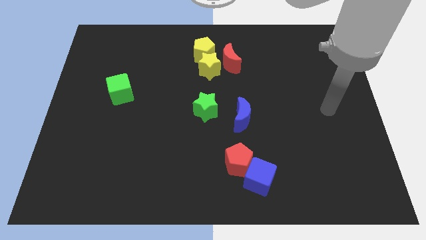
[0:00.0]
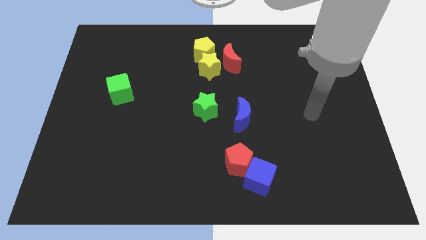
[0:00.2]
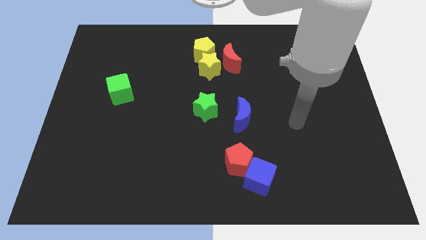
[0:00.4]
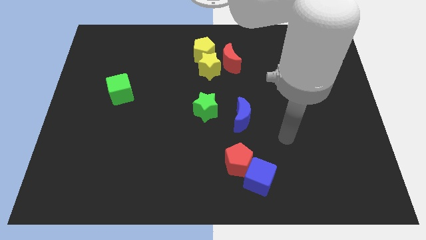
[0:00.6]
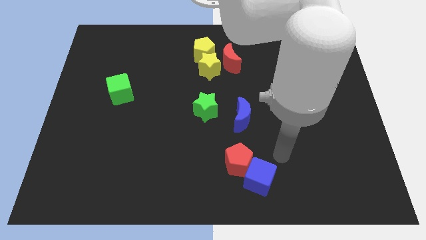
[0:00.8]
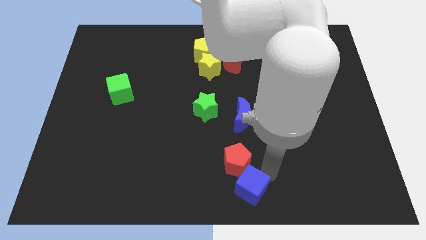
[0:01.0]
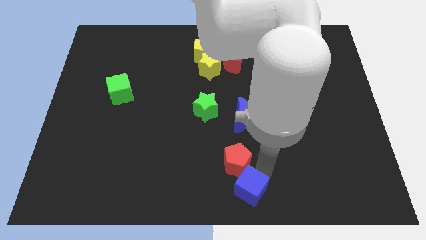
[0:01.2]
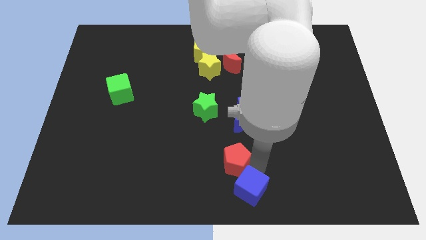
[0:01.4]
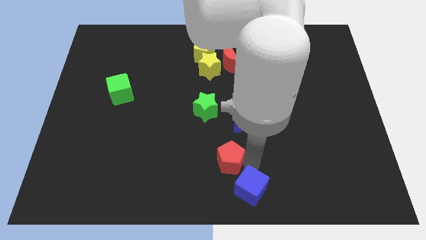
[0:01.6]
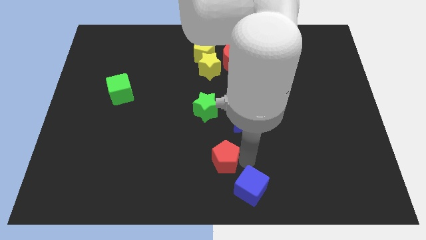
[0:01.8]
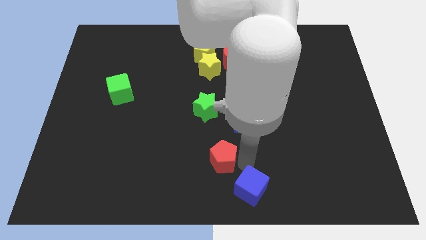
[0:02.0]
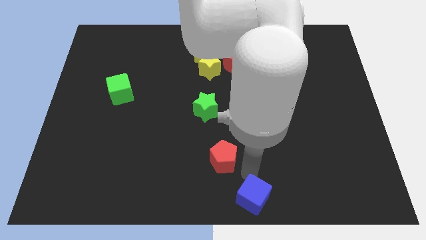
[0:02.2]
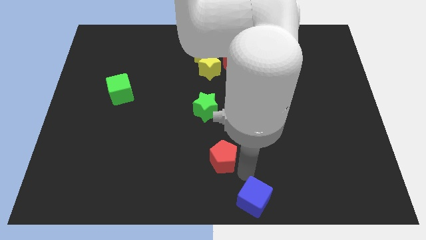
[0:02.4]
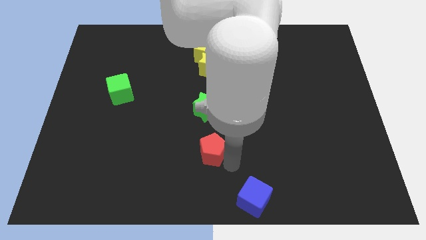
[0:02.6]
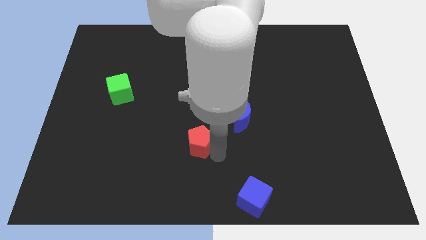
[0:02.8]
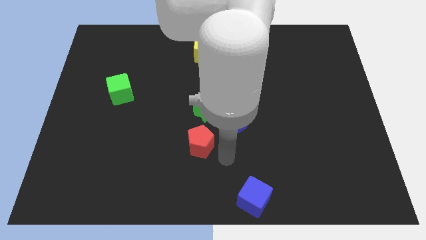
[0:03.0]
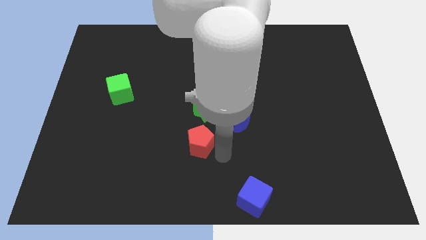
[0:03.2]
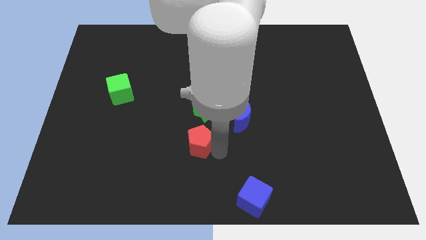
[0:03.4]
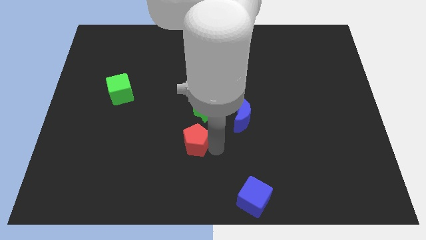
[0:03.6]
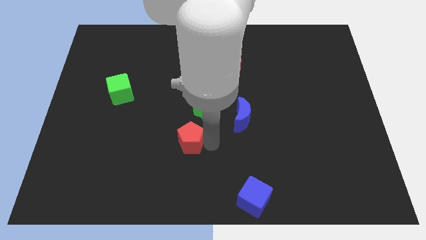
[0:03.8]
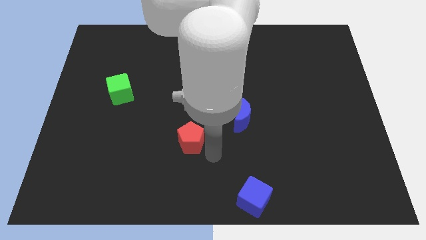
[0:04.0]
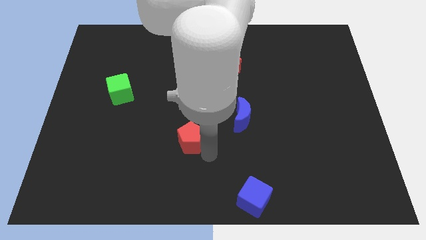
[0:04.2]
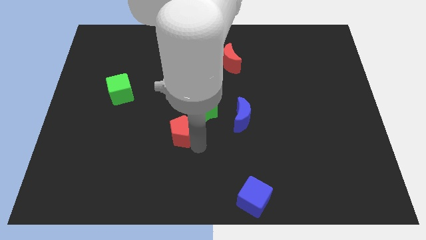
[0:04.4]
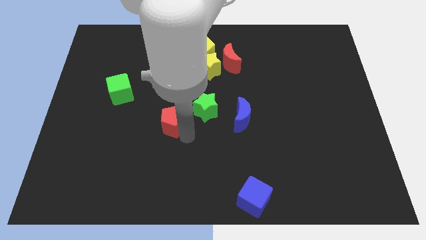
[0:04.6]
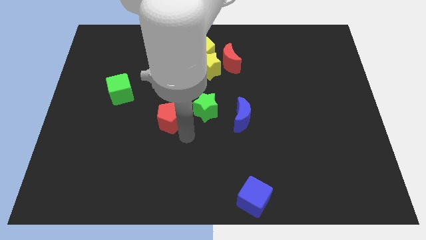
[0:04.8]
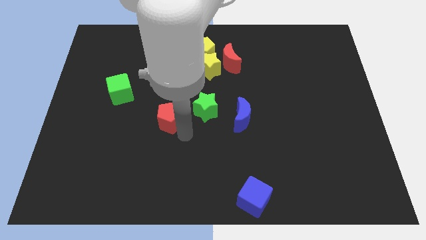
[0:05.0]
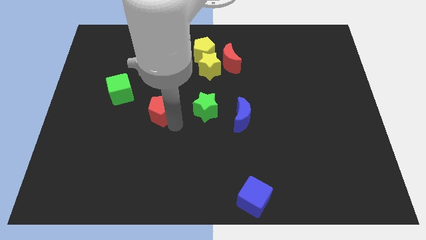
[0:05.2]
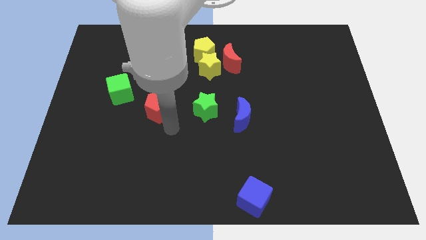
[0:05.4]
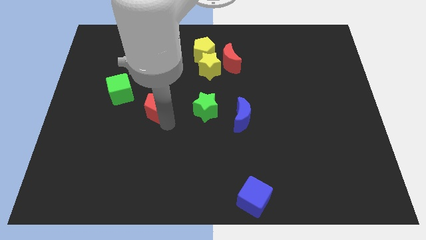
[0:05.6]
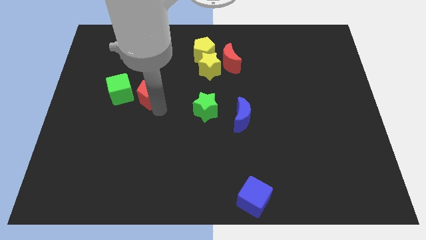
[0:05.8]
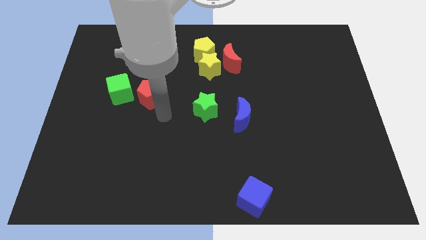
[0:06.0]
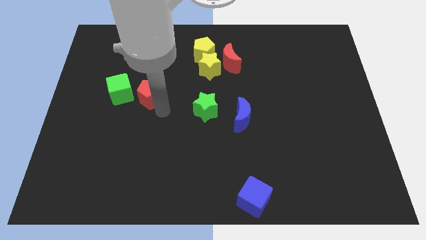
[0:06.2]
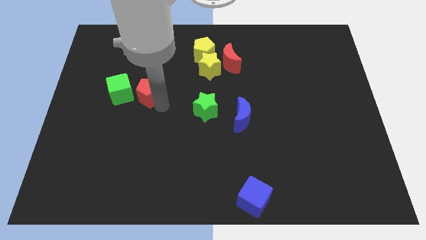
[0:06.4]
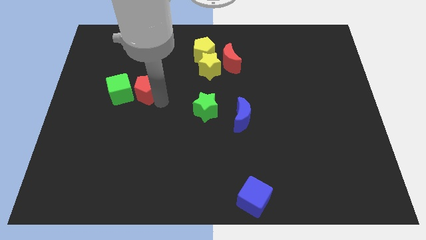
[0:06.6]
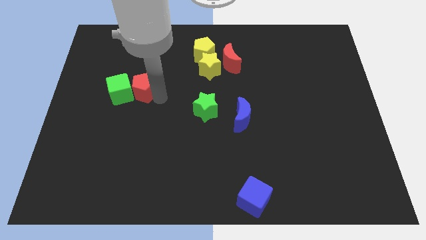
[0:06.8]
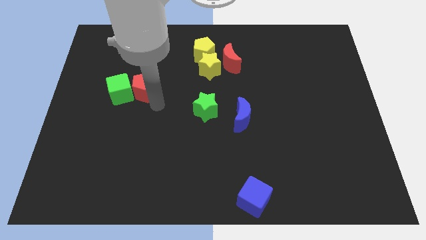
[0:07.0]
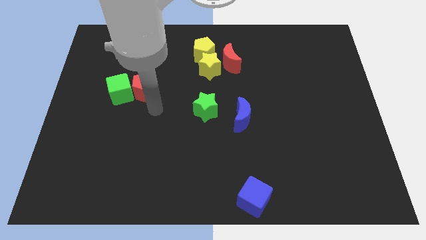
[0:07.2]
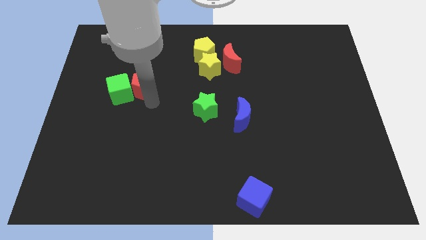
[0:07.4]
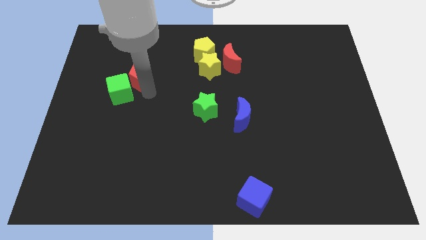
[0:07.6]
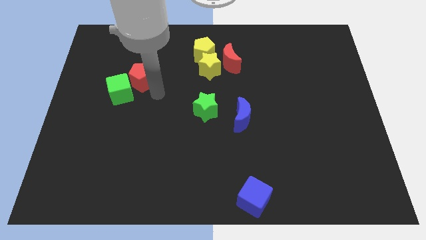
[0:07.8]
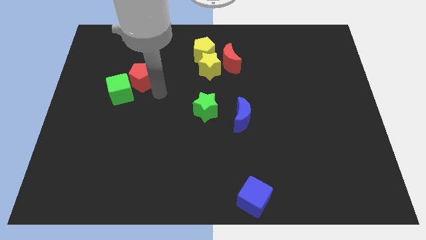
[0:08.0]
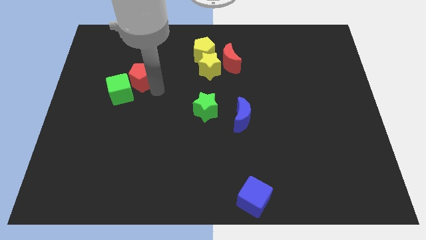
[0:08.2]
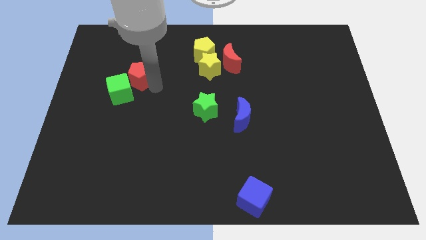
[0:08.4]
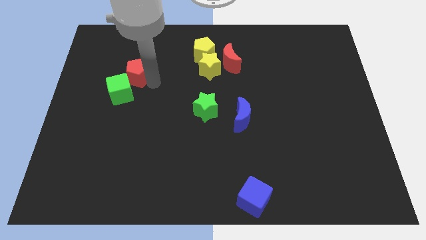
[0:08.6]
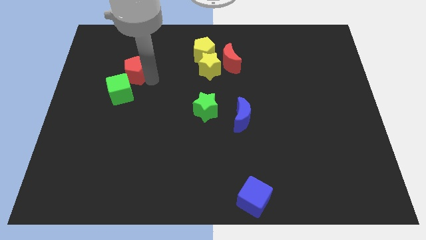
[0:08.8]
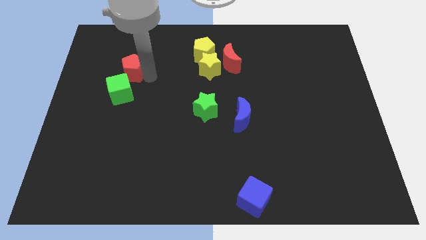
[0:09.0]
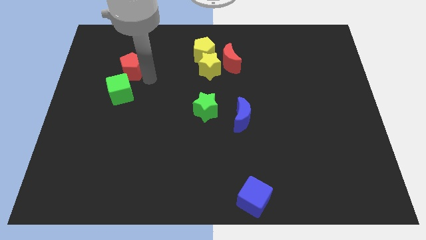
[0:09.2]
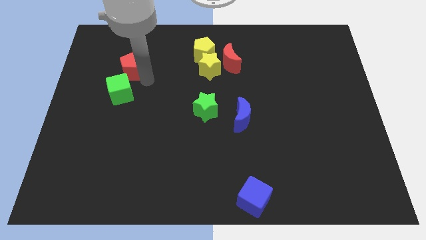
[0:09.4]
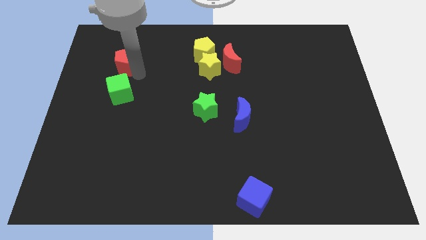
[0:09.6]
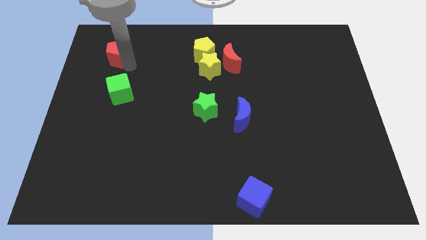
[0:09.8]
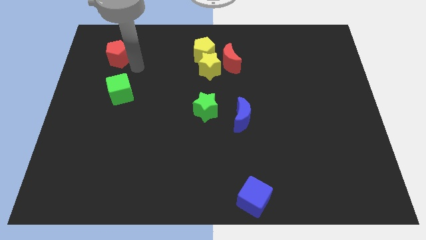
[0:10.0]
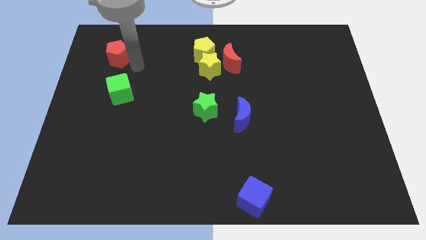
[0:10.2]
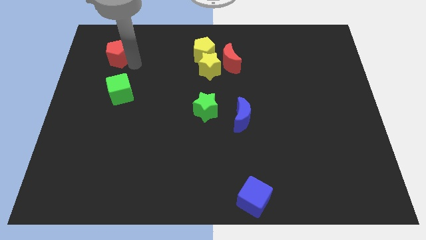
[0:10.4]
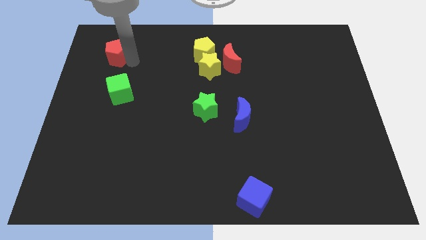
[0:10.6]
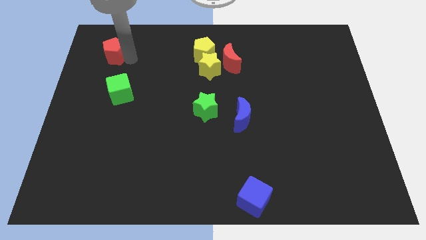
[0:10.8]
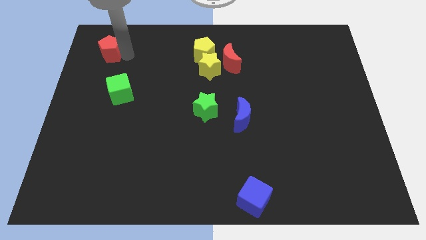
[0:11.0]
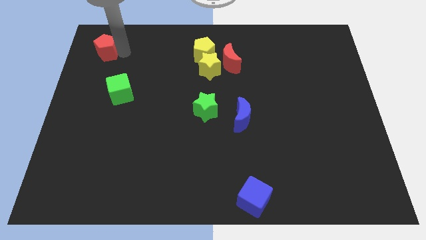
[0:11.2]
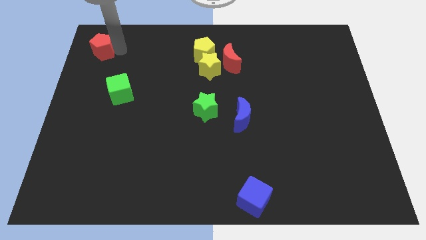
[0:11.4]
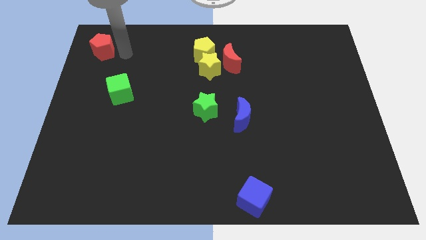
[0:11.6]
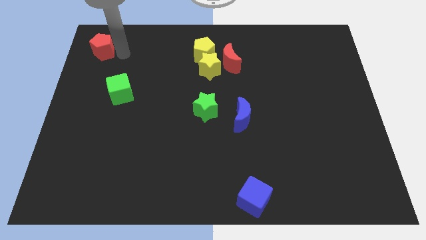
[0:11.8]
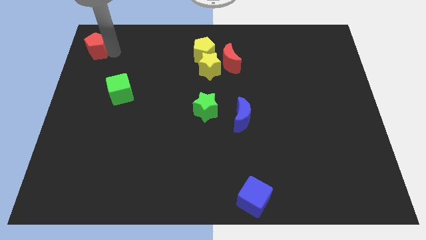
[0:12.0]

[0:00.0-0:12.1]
slide the red pentagon to the top left

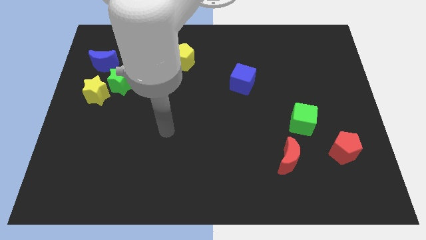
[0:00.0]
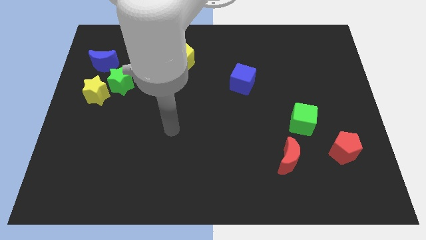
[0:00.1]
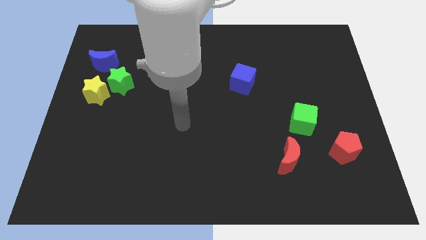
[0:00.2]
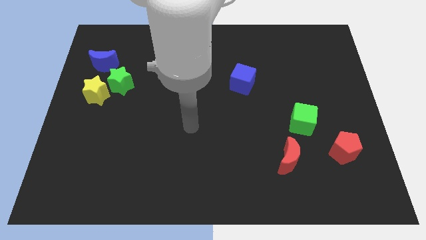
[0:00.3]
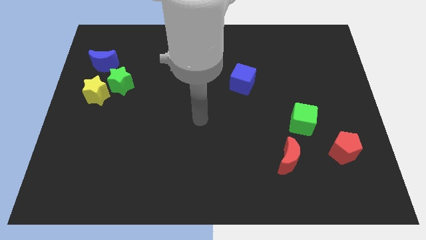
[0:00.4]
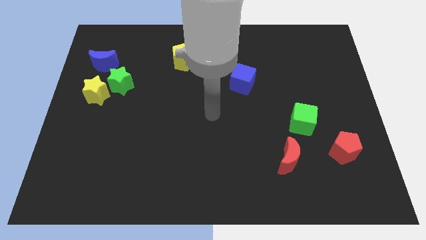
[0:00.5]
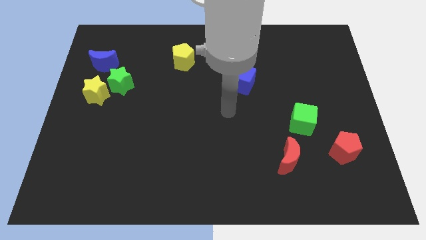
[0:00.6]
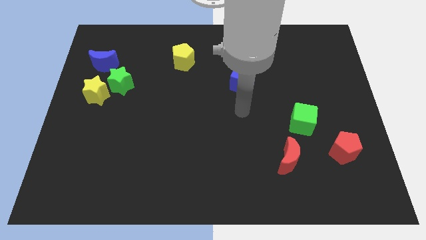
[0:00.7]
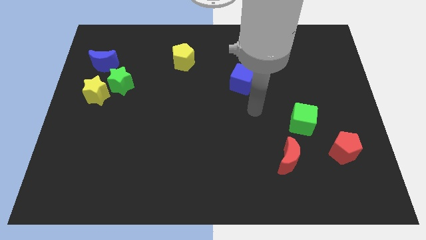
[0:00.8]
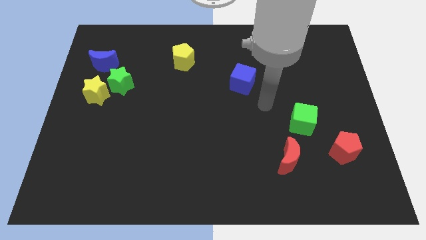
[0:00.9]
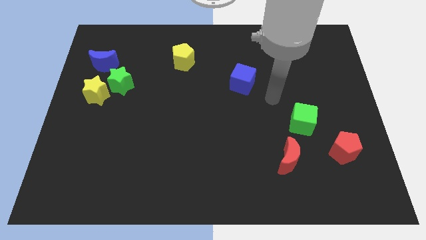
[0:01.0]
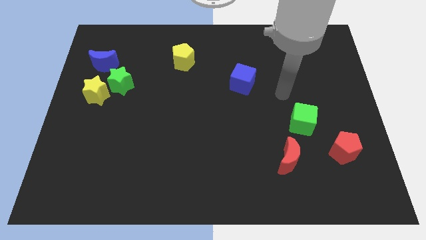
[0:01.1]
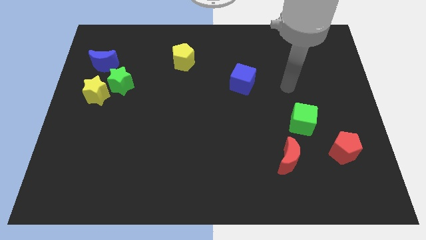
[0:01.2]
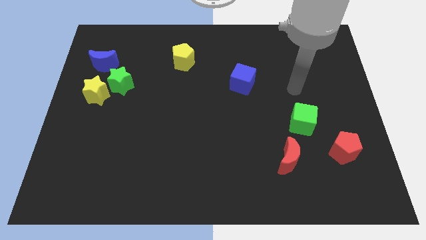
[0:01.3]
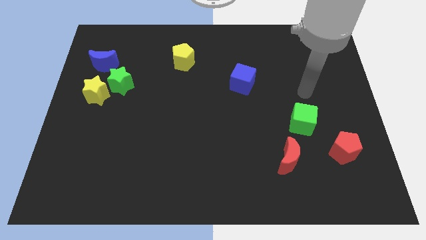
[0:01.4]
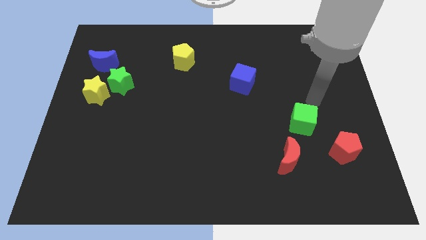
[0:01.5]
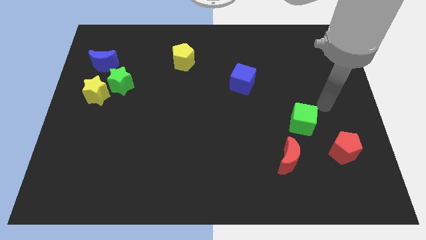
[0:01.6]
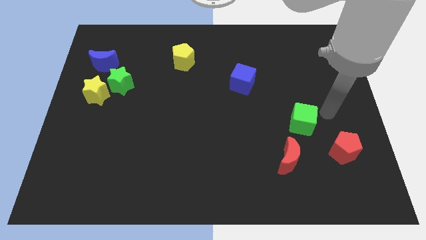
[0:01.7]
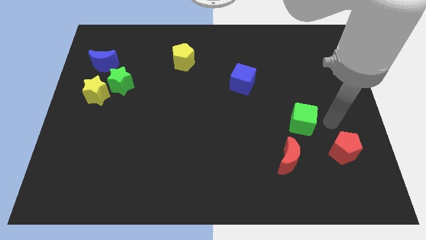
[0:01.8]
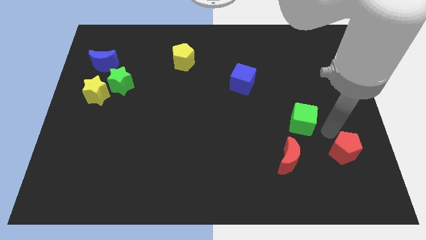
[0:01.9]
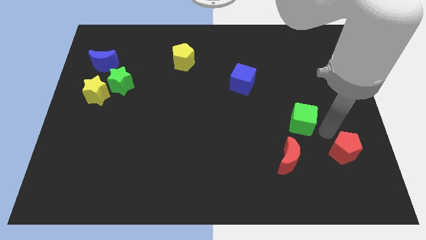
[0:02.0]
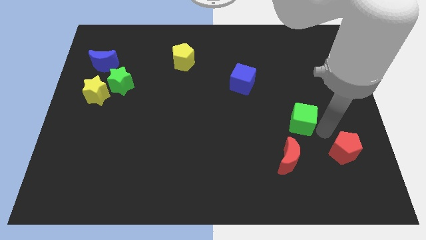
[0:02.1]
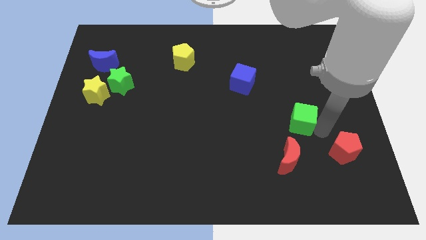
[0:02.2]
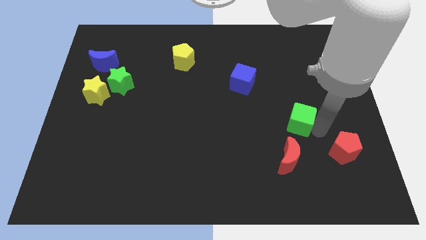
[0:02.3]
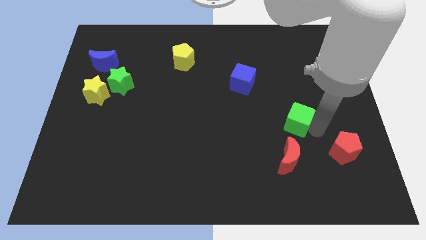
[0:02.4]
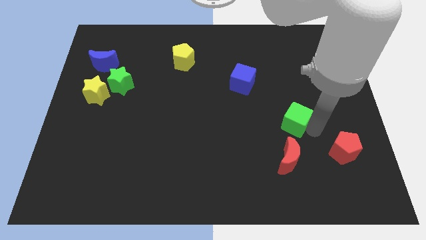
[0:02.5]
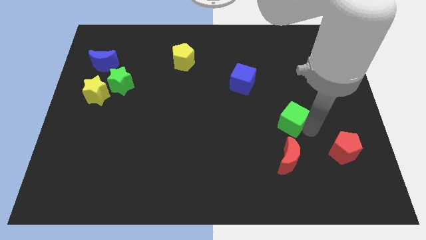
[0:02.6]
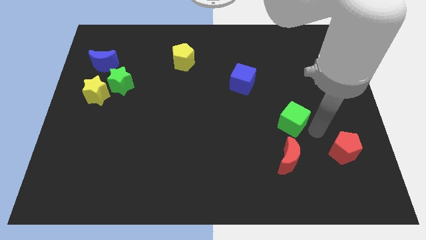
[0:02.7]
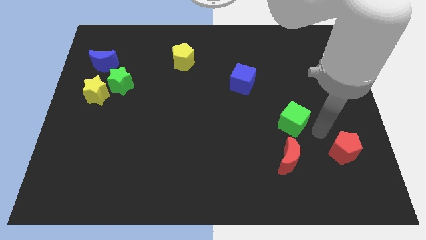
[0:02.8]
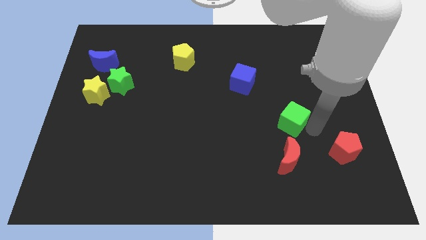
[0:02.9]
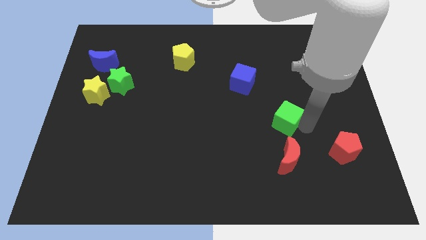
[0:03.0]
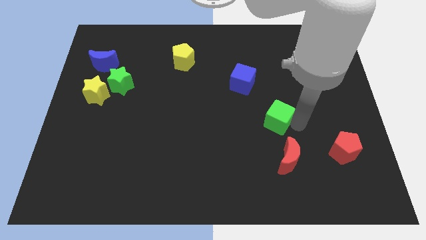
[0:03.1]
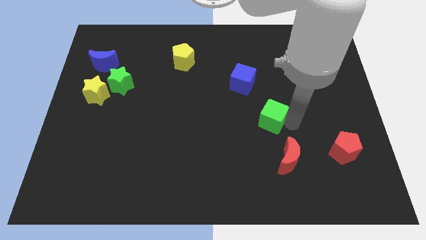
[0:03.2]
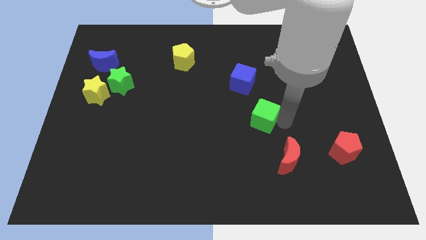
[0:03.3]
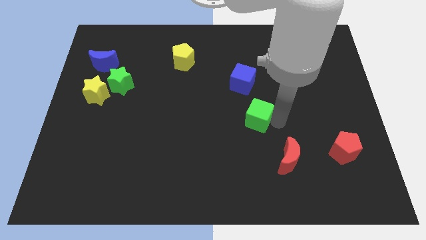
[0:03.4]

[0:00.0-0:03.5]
move the green cube to the middle
